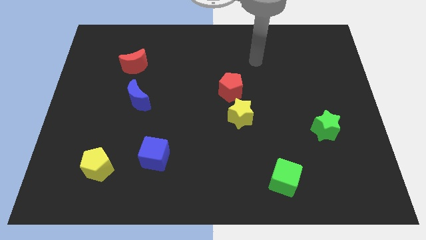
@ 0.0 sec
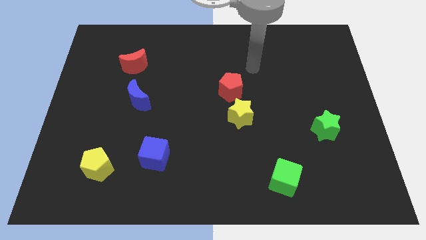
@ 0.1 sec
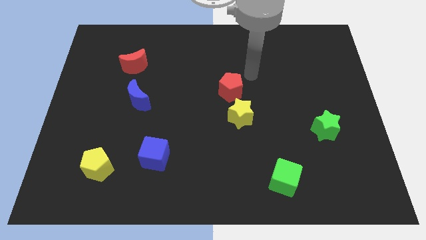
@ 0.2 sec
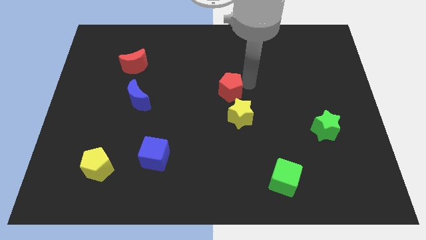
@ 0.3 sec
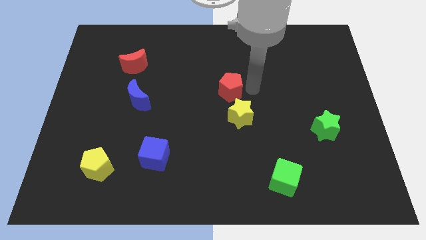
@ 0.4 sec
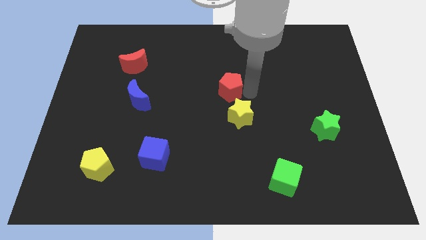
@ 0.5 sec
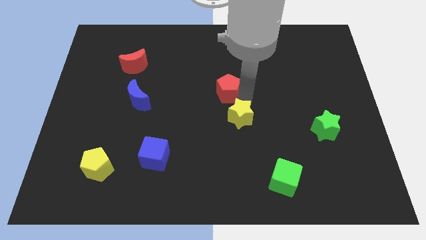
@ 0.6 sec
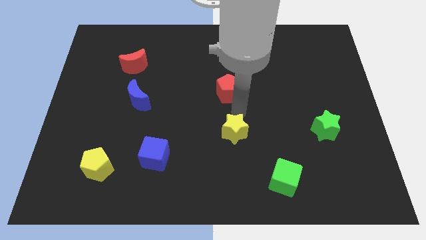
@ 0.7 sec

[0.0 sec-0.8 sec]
move the red pentagon away from the yellow star

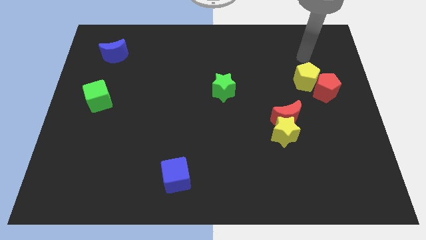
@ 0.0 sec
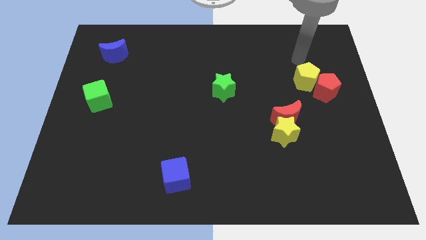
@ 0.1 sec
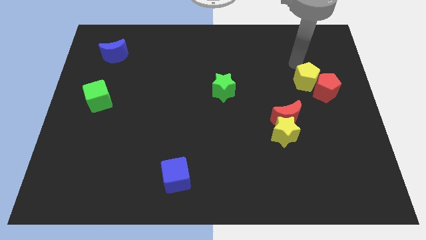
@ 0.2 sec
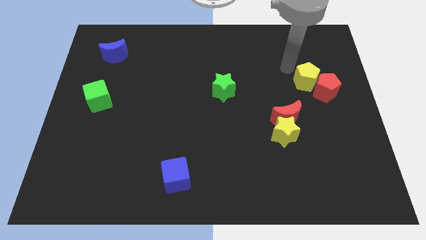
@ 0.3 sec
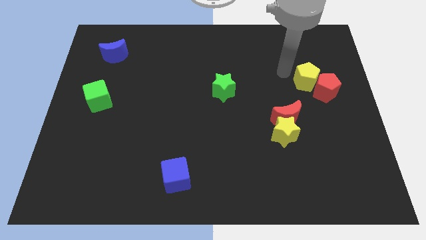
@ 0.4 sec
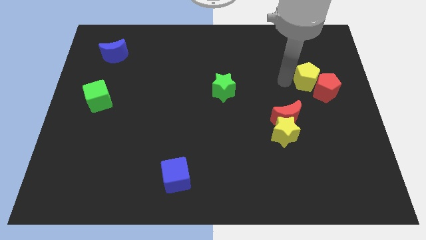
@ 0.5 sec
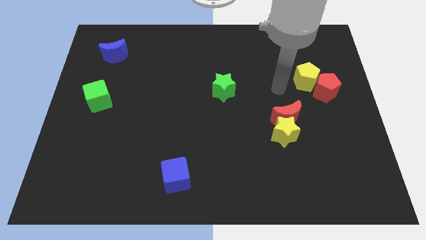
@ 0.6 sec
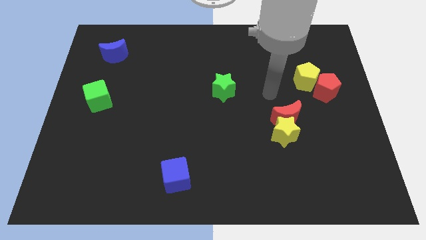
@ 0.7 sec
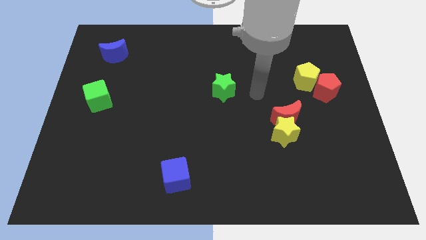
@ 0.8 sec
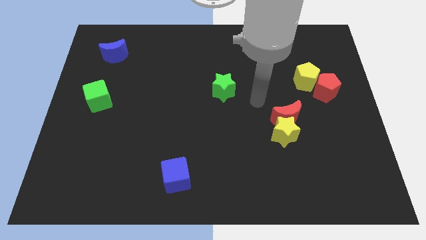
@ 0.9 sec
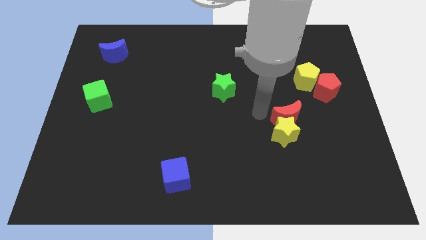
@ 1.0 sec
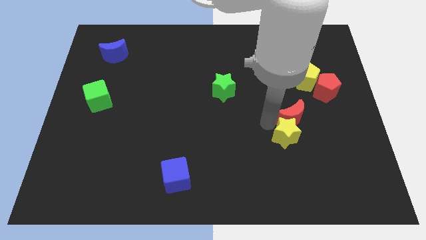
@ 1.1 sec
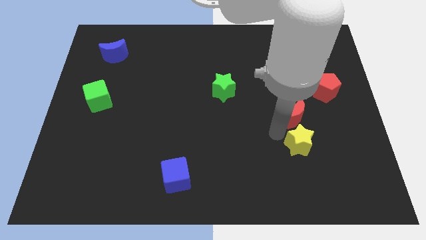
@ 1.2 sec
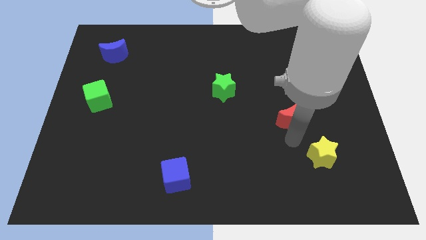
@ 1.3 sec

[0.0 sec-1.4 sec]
pull the red moon apart from the yellow star

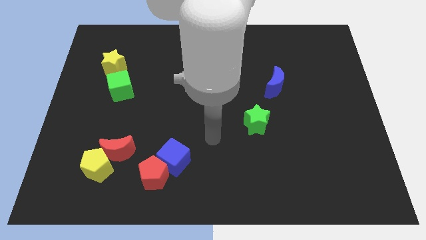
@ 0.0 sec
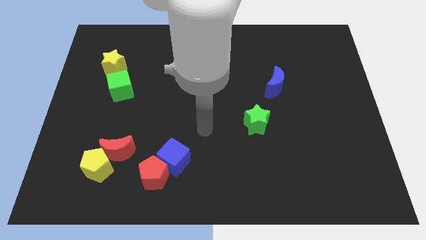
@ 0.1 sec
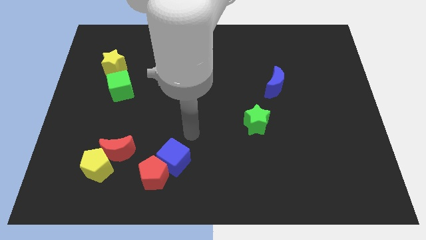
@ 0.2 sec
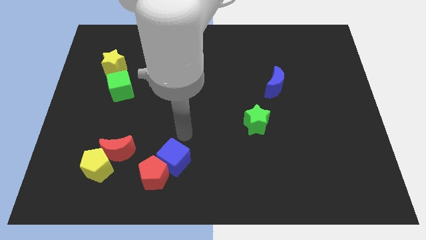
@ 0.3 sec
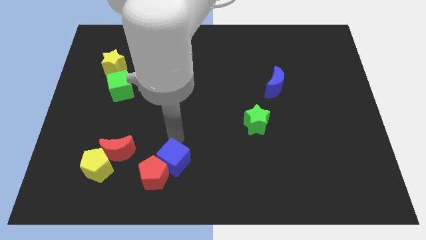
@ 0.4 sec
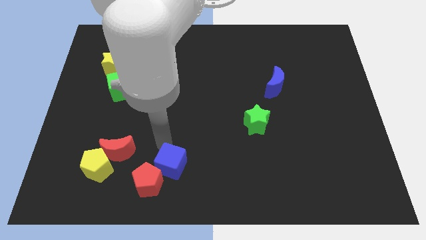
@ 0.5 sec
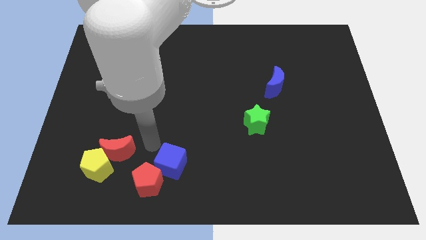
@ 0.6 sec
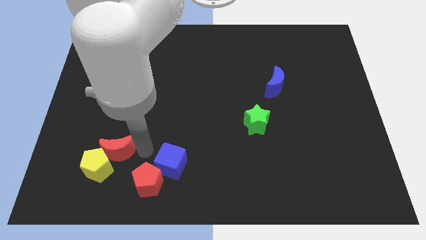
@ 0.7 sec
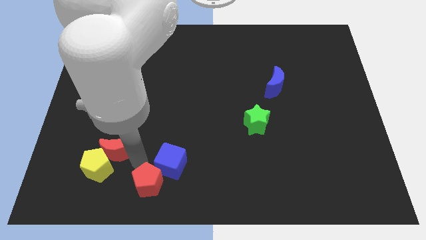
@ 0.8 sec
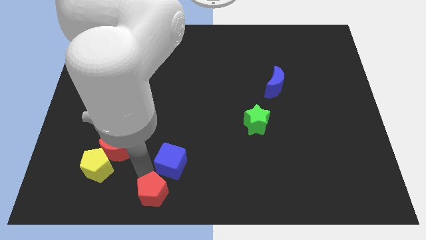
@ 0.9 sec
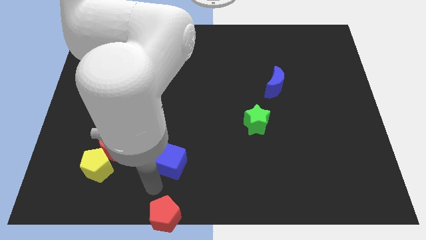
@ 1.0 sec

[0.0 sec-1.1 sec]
pull the blue cube apart from the red pentagon

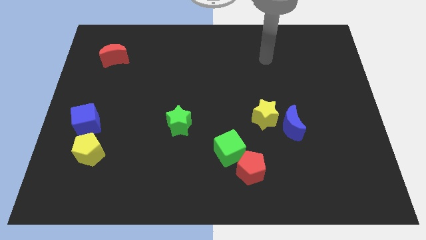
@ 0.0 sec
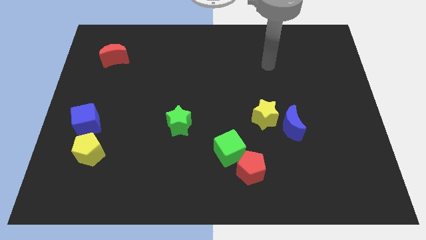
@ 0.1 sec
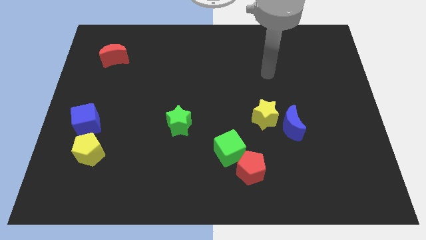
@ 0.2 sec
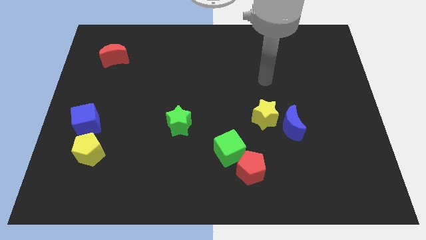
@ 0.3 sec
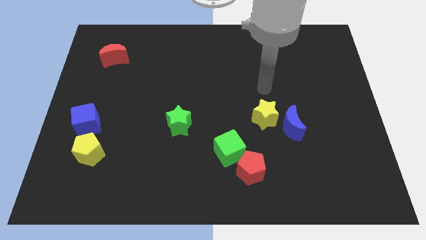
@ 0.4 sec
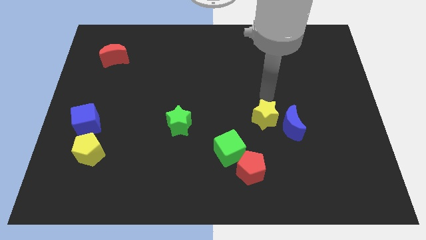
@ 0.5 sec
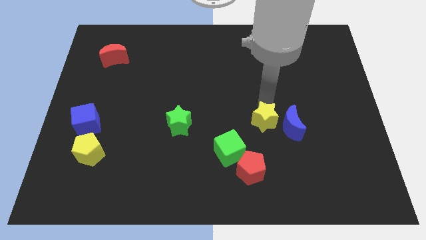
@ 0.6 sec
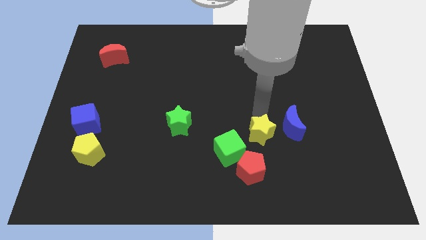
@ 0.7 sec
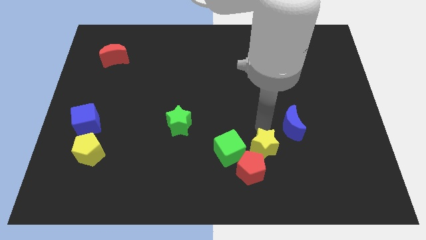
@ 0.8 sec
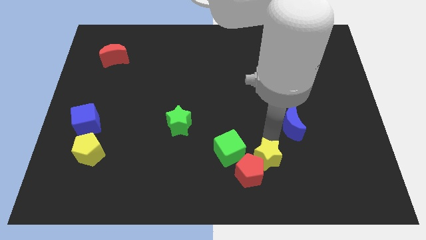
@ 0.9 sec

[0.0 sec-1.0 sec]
pull the blue moon apart from the yellow star

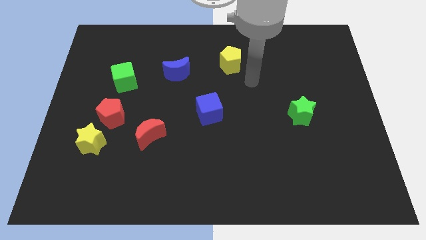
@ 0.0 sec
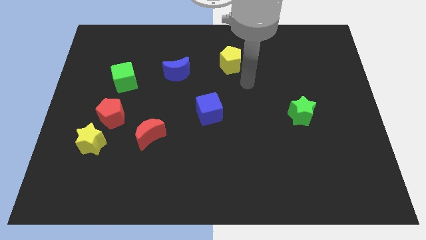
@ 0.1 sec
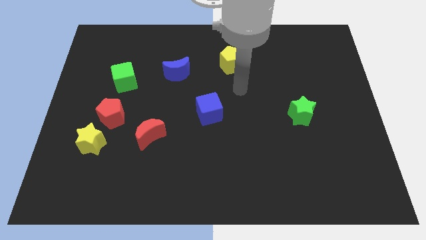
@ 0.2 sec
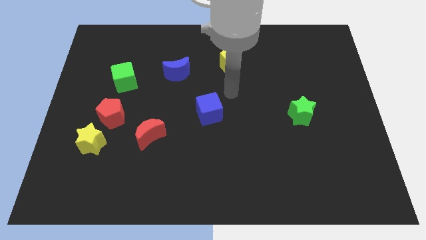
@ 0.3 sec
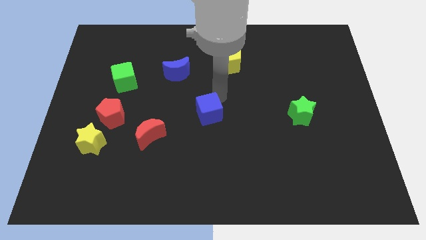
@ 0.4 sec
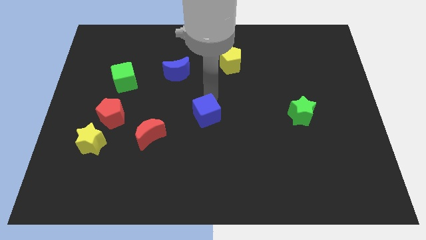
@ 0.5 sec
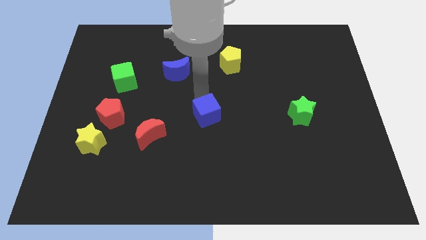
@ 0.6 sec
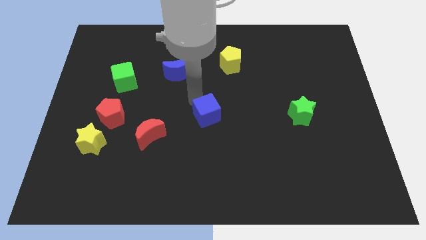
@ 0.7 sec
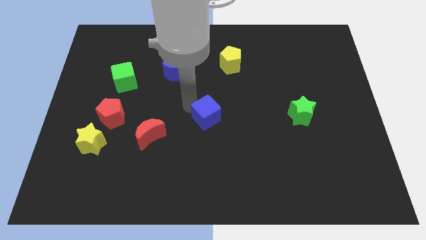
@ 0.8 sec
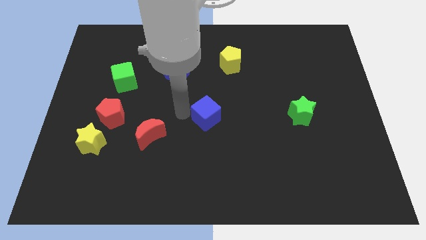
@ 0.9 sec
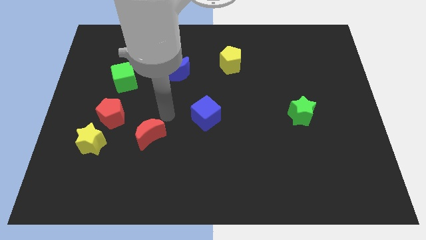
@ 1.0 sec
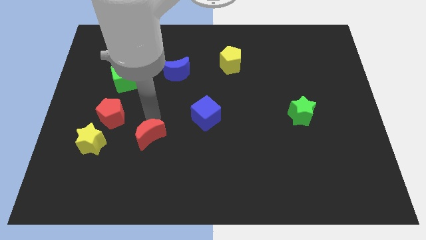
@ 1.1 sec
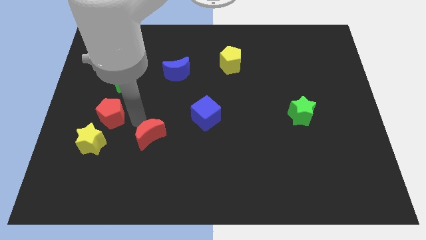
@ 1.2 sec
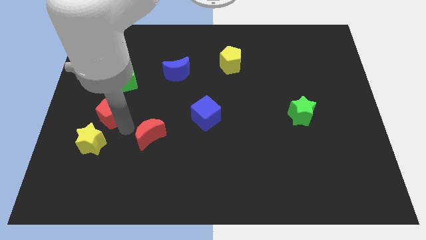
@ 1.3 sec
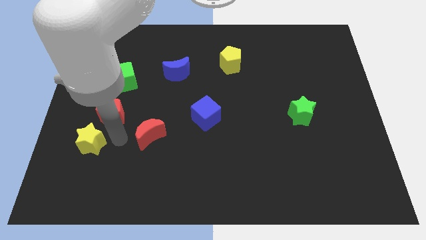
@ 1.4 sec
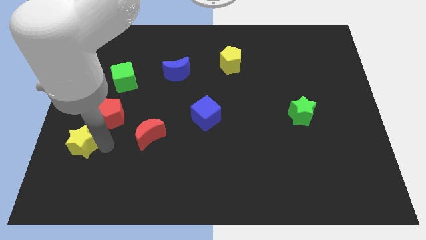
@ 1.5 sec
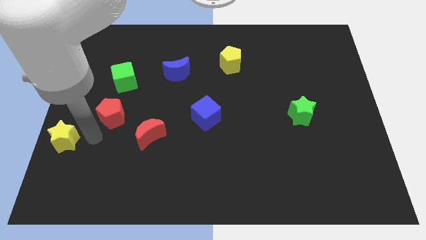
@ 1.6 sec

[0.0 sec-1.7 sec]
pull the red pentagon apart from the yellow star

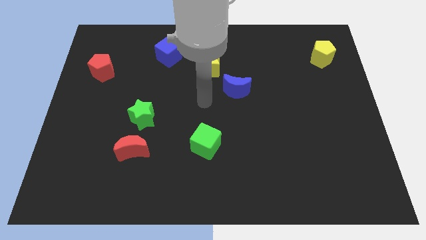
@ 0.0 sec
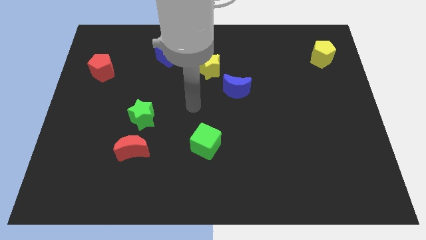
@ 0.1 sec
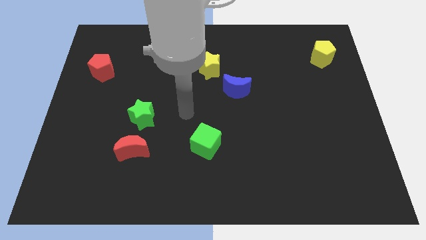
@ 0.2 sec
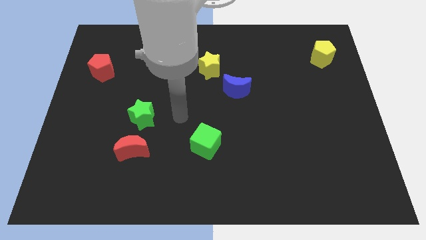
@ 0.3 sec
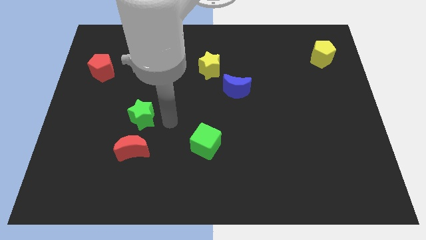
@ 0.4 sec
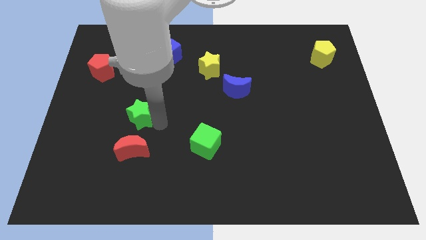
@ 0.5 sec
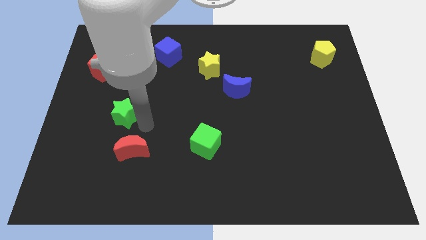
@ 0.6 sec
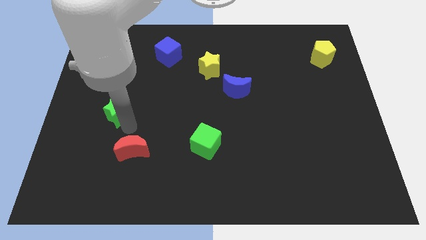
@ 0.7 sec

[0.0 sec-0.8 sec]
separate the red moon from the green star

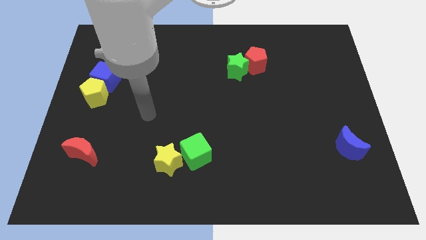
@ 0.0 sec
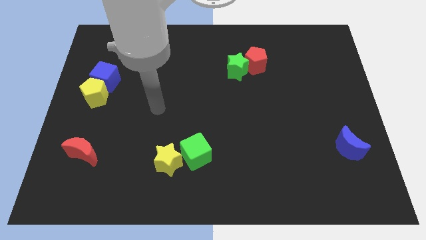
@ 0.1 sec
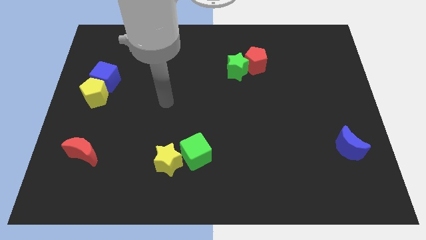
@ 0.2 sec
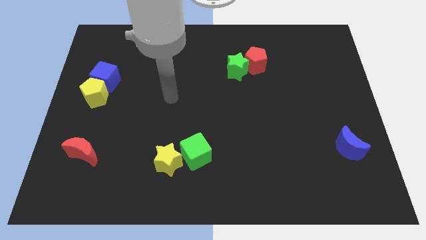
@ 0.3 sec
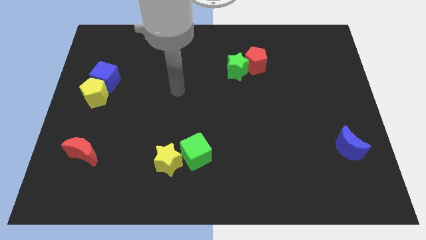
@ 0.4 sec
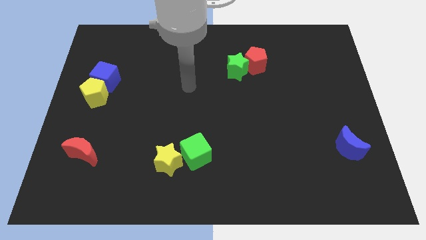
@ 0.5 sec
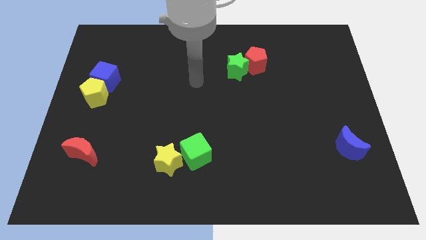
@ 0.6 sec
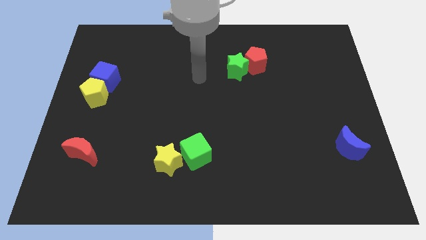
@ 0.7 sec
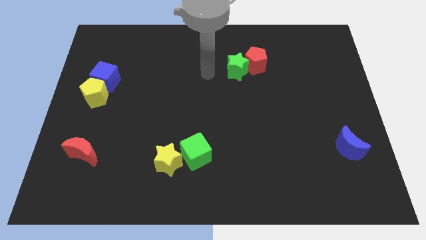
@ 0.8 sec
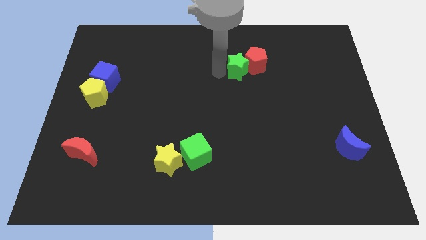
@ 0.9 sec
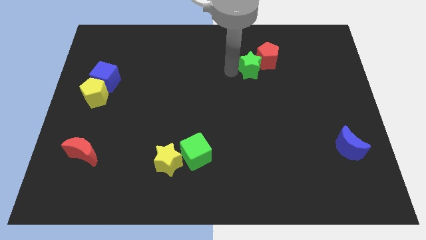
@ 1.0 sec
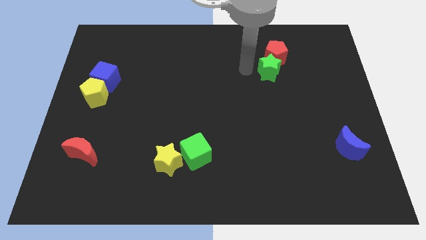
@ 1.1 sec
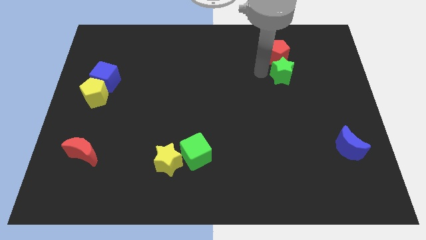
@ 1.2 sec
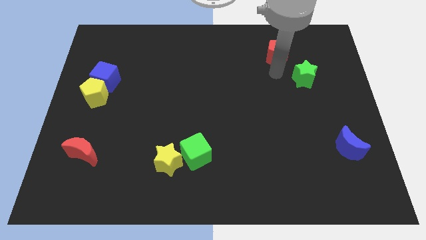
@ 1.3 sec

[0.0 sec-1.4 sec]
move the red pentagon away from the green star

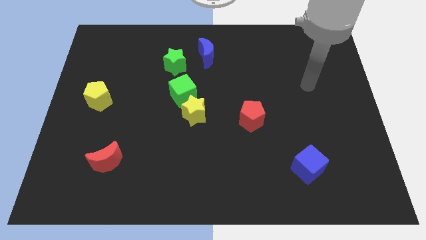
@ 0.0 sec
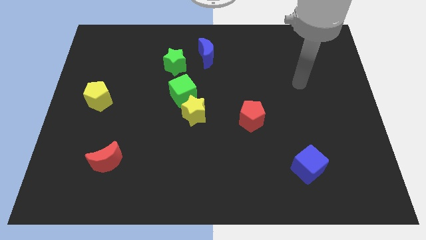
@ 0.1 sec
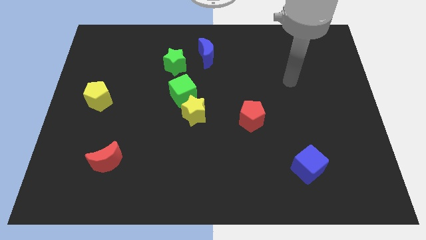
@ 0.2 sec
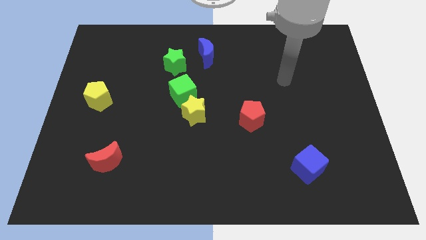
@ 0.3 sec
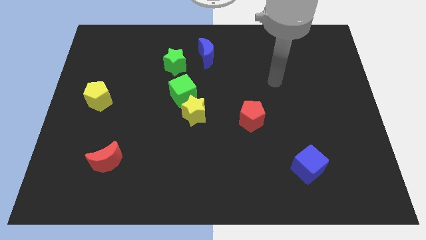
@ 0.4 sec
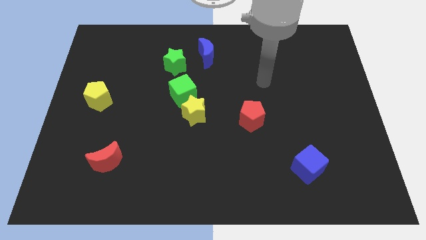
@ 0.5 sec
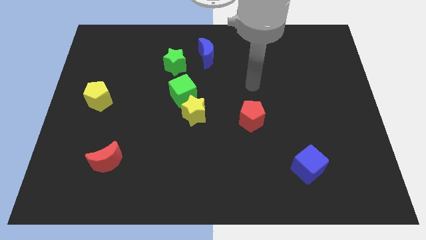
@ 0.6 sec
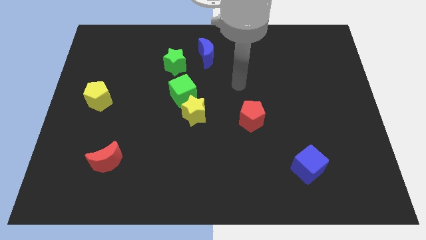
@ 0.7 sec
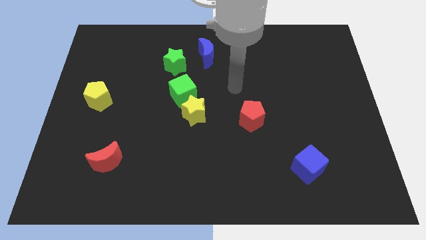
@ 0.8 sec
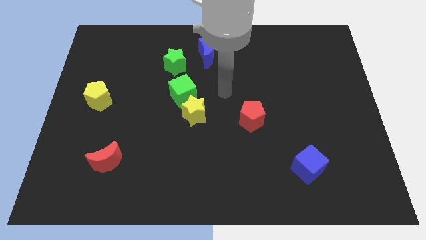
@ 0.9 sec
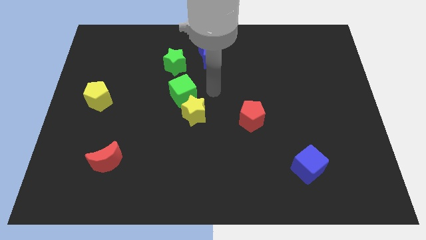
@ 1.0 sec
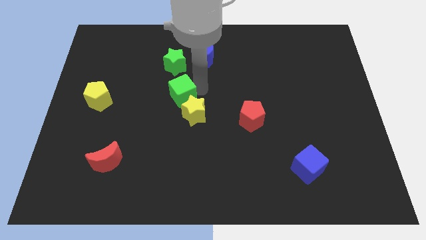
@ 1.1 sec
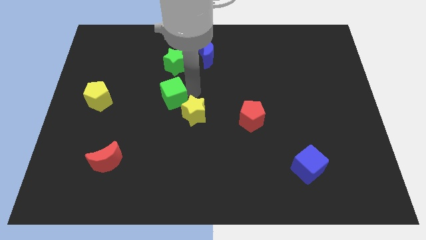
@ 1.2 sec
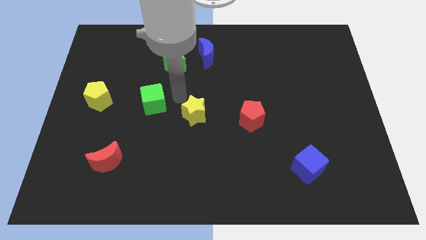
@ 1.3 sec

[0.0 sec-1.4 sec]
separate the yellow star from the green cube
